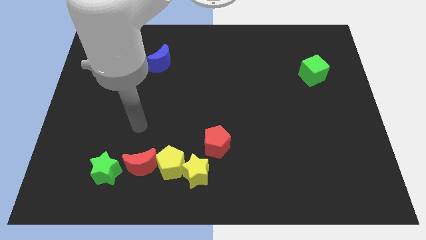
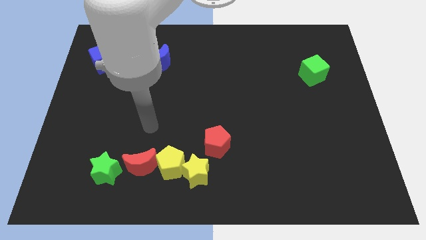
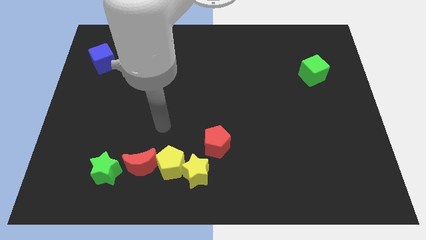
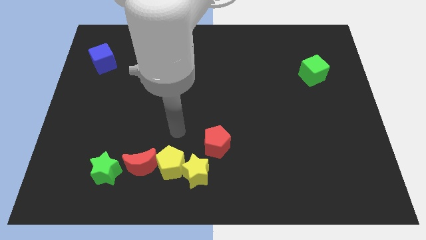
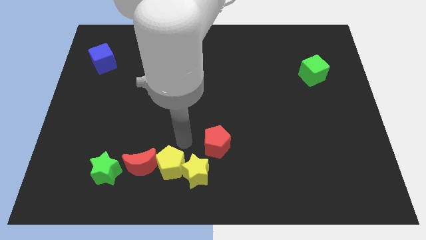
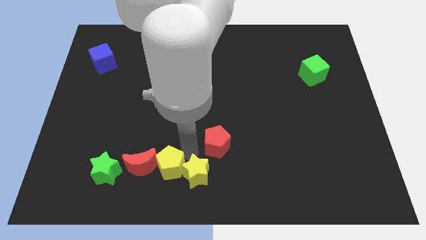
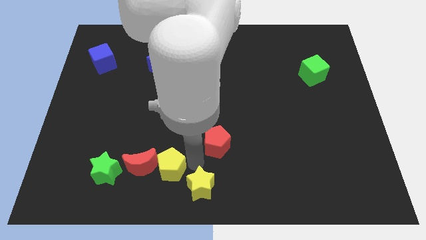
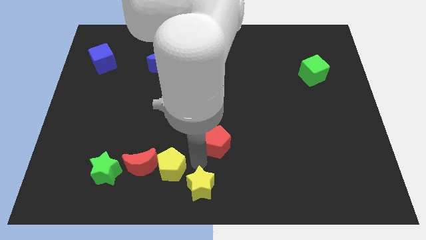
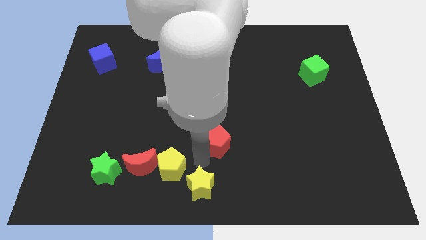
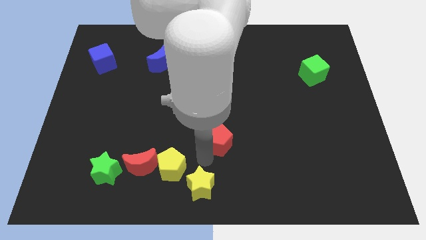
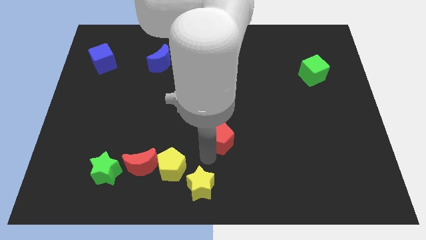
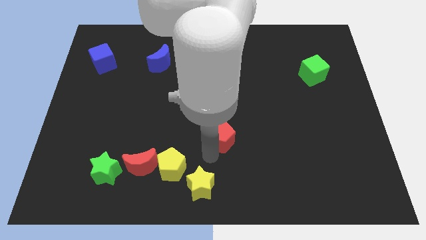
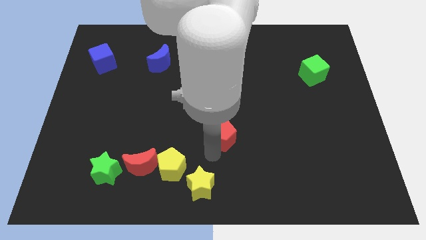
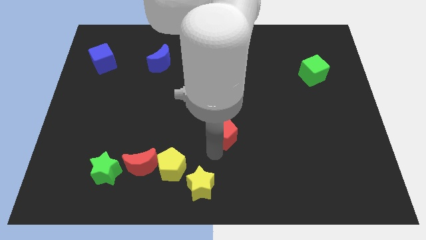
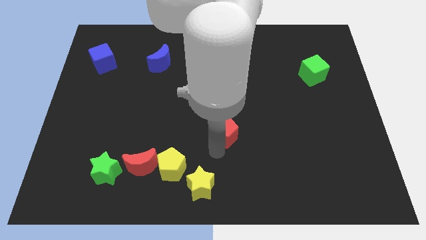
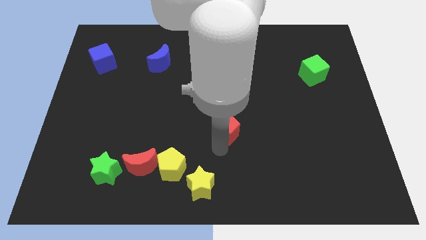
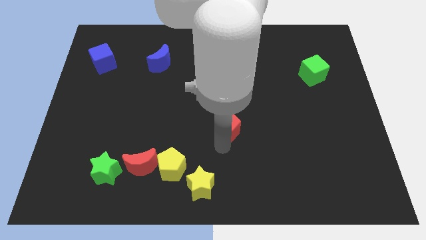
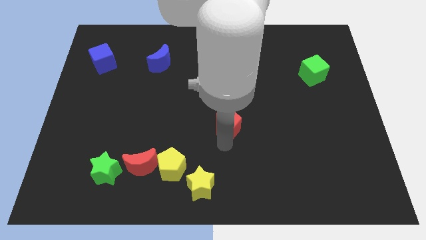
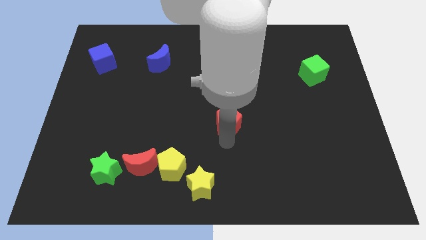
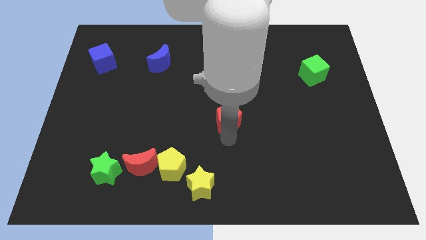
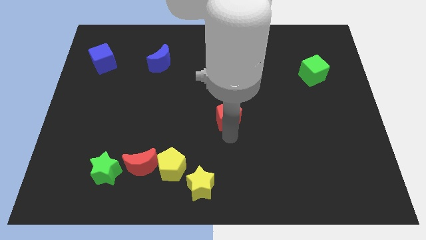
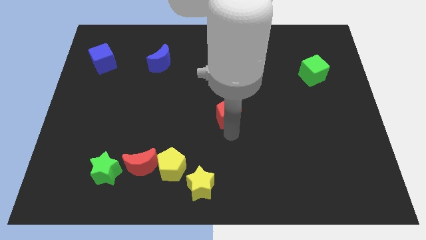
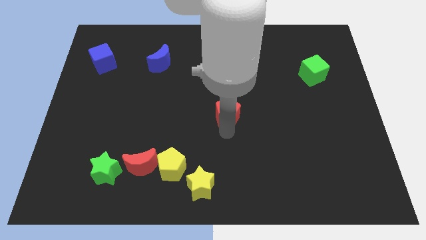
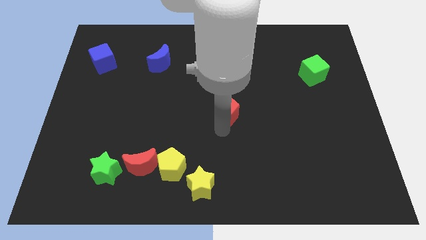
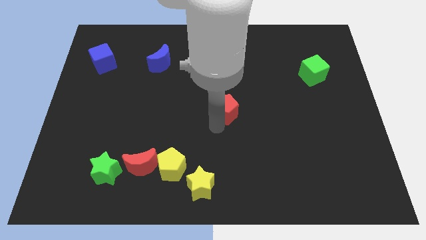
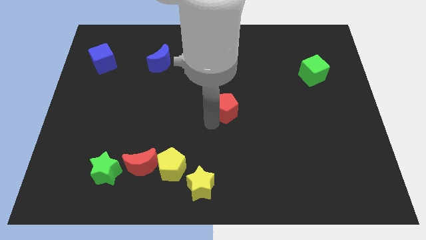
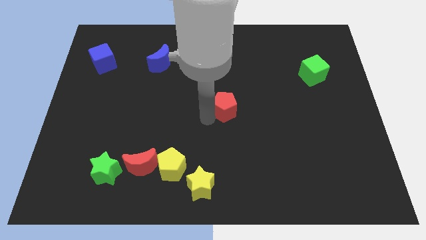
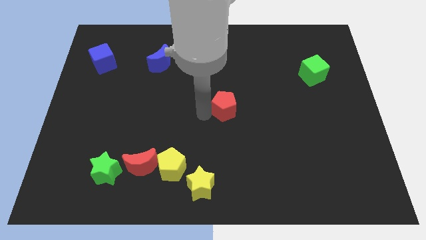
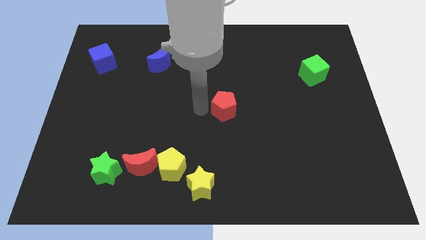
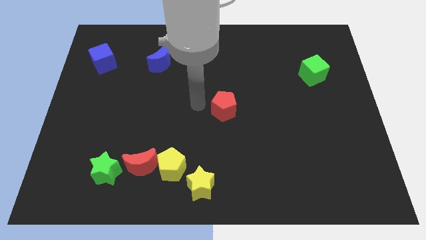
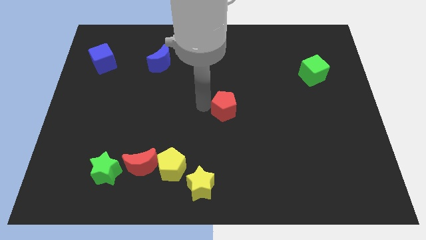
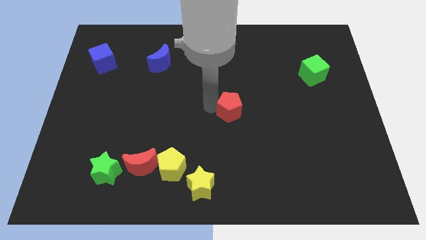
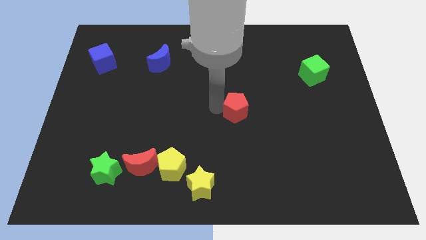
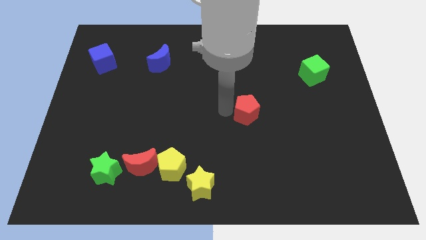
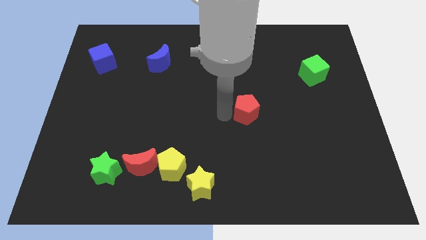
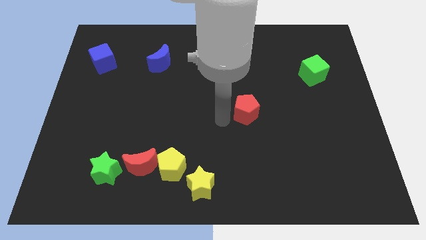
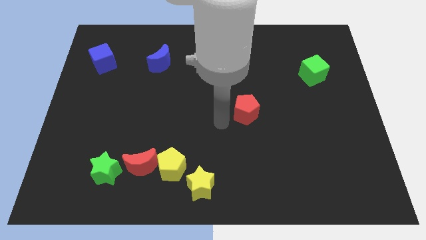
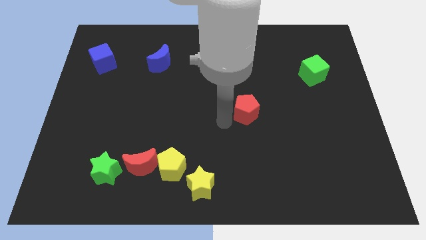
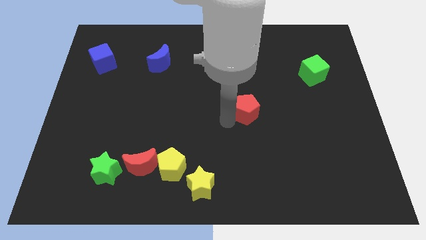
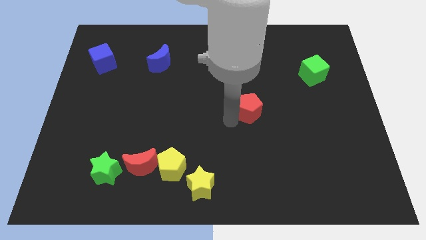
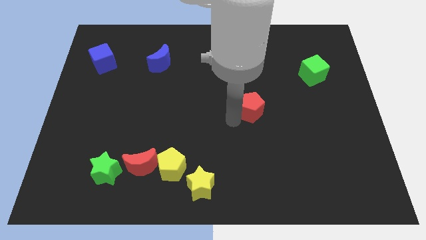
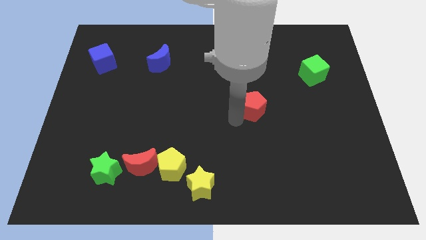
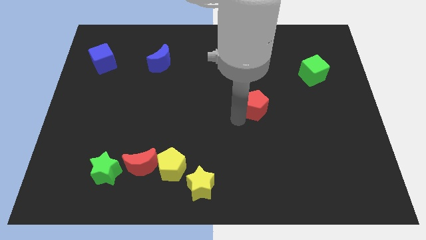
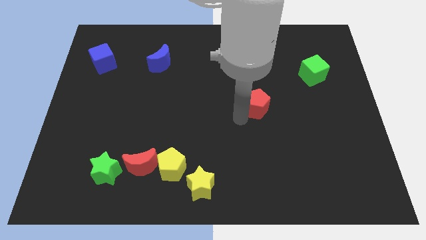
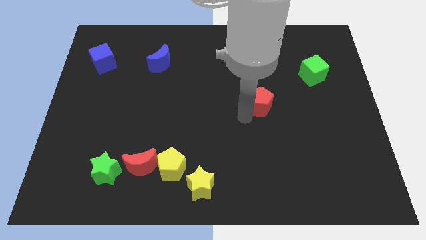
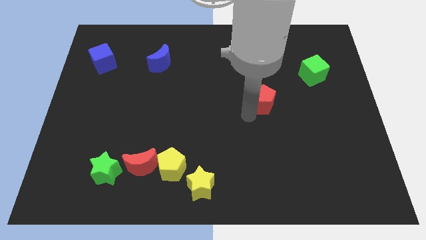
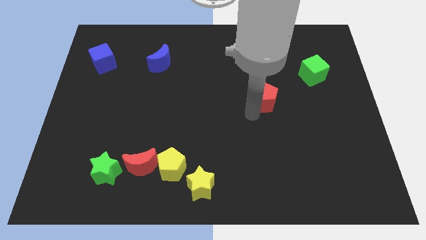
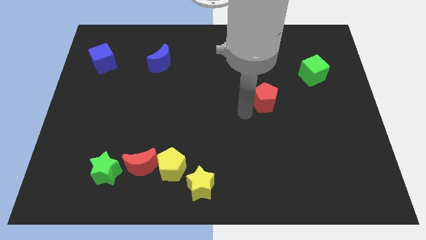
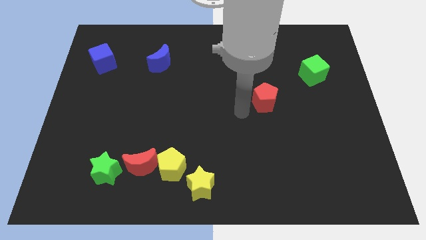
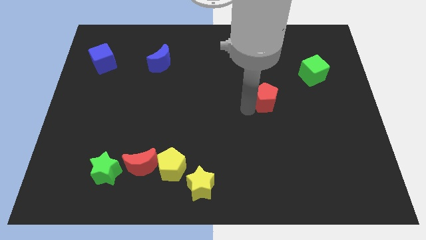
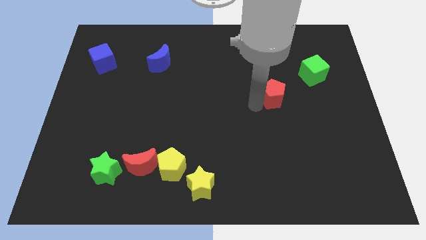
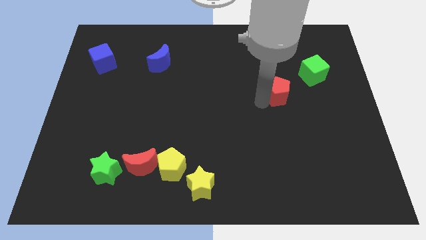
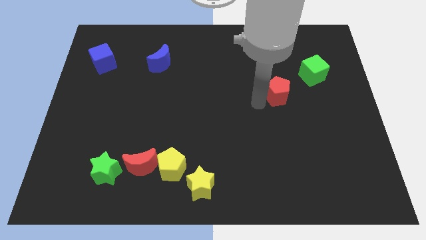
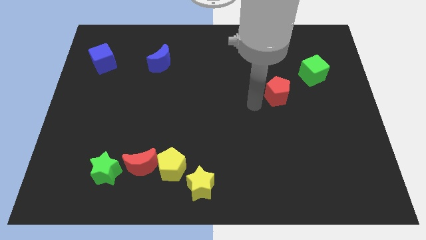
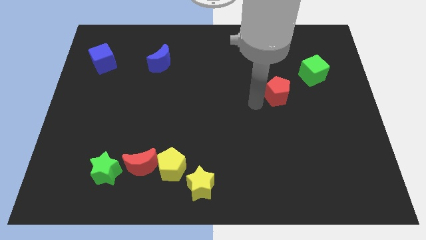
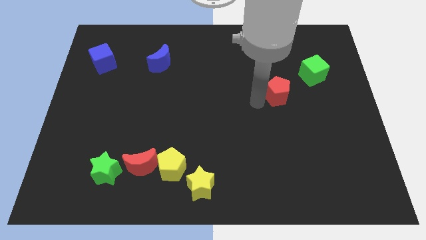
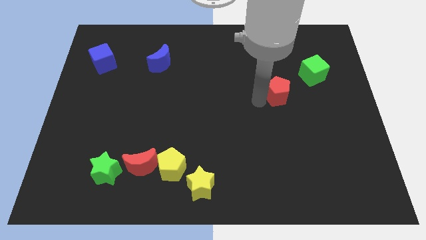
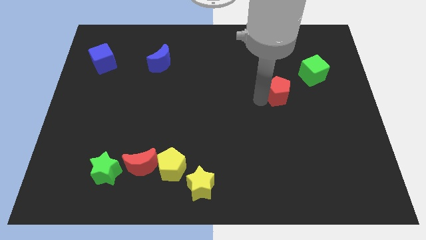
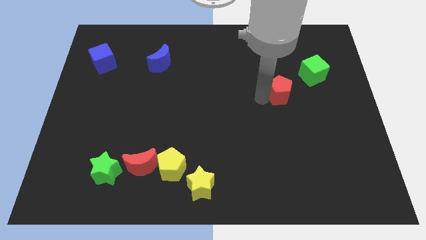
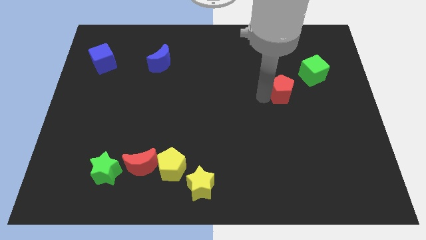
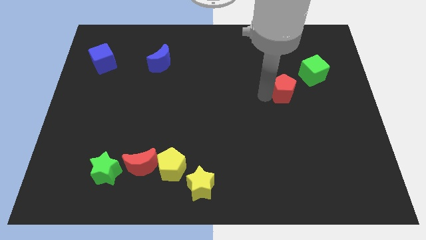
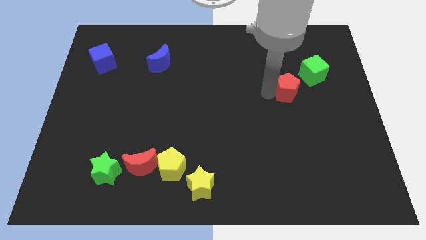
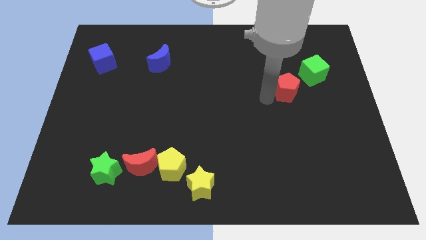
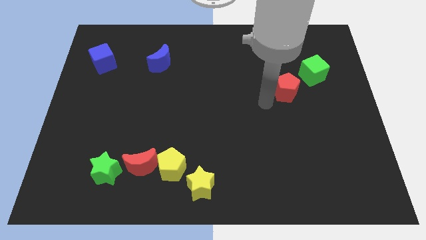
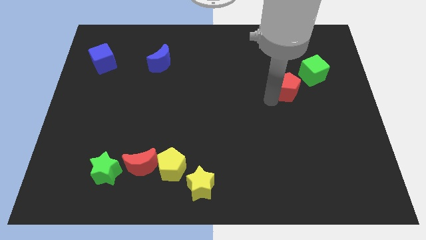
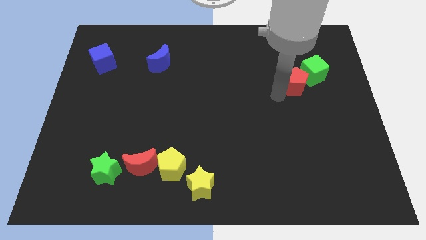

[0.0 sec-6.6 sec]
move the red pentagon close to the green cube

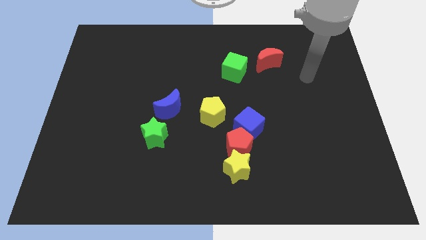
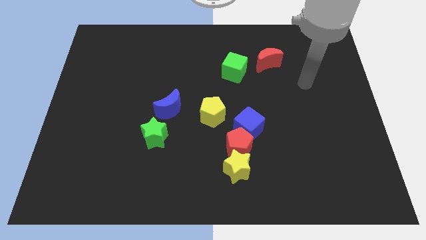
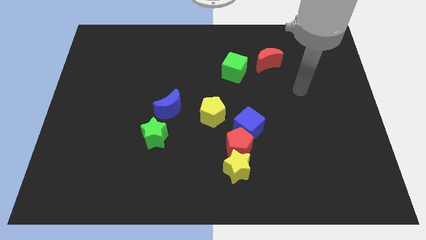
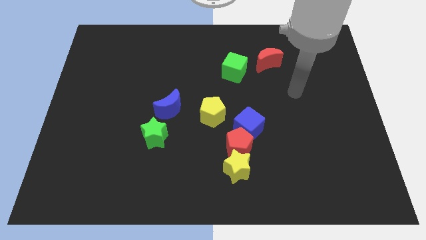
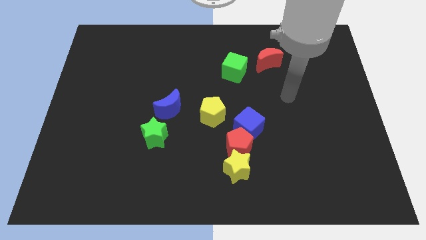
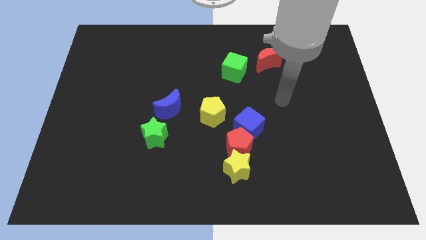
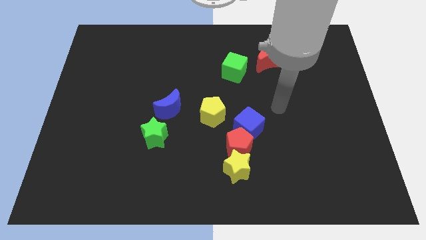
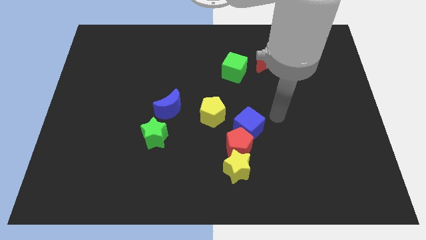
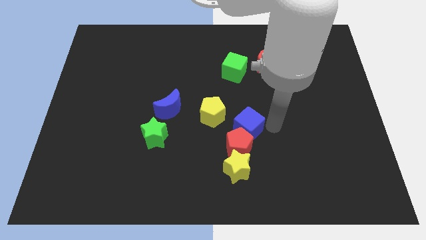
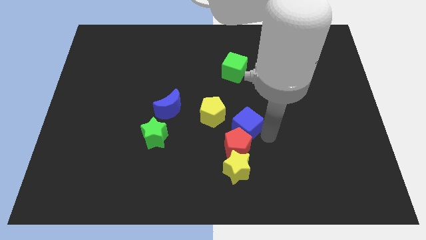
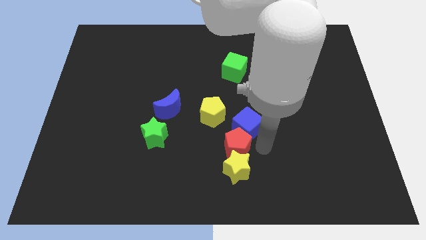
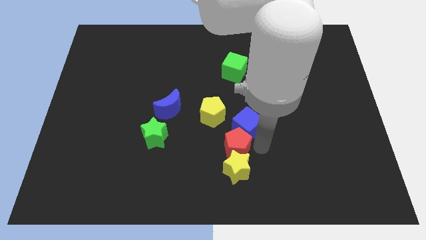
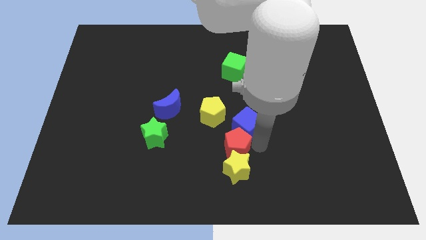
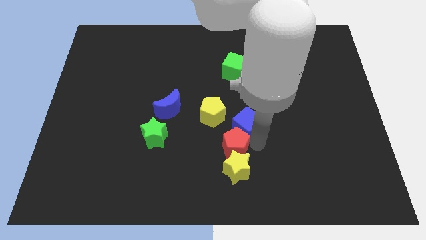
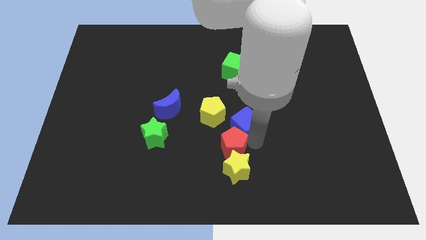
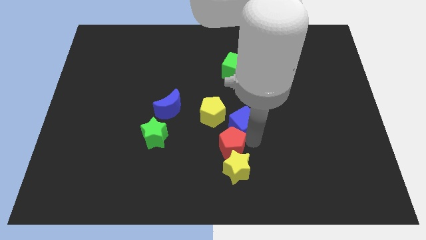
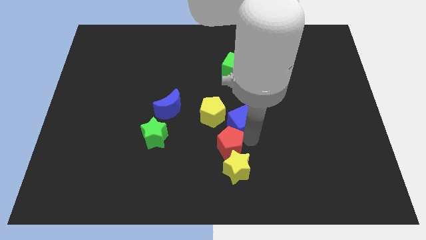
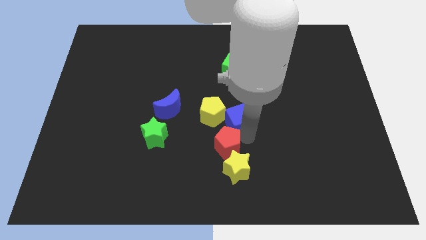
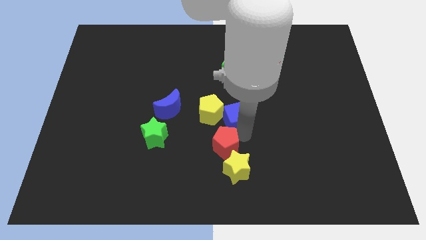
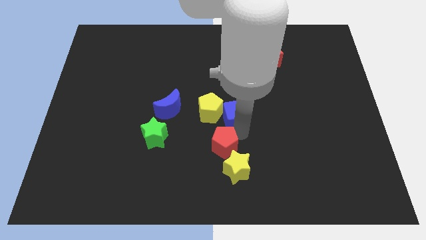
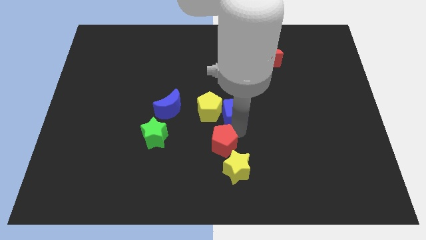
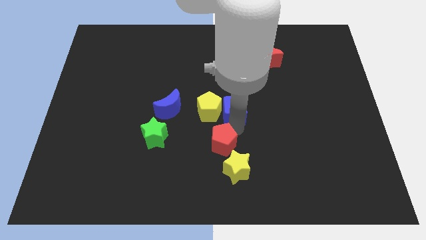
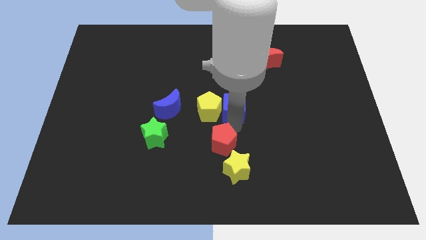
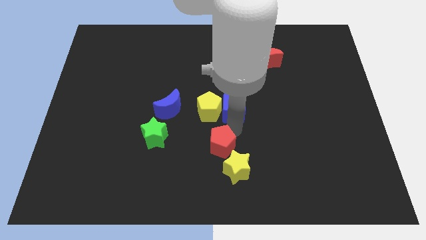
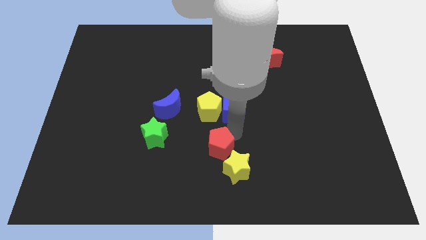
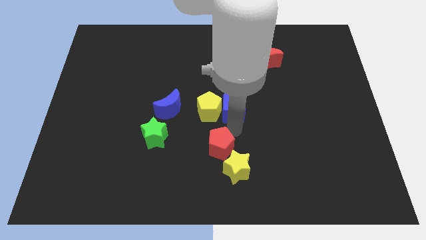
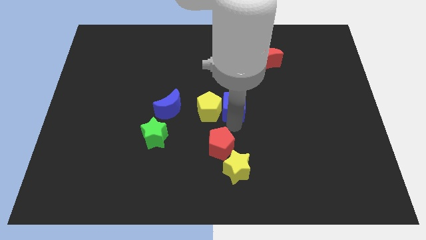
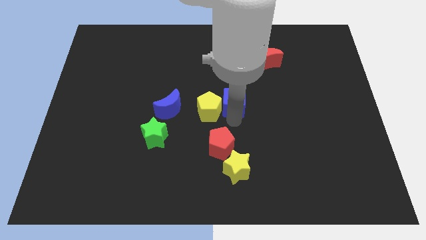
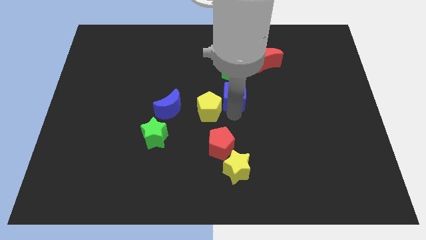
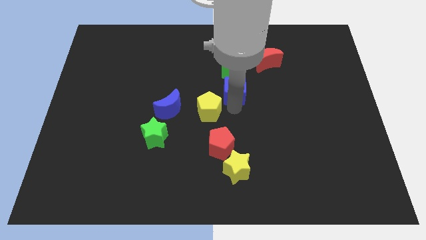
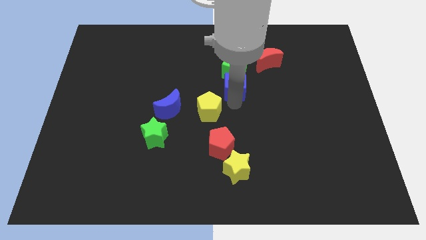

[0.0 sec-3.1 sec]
move the blue cube next to the green cube
